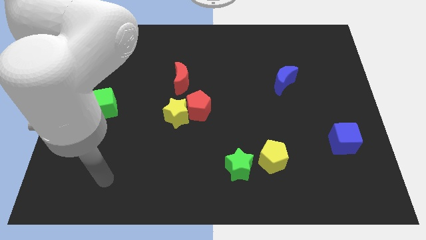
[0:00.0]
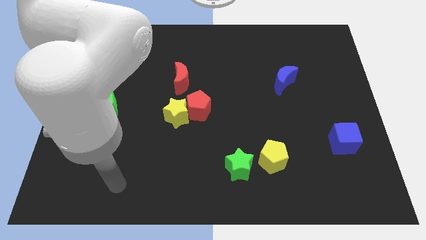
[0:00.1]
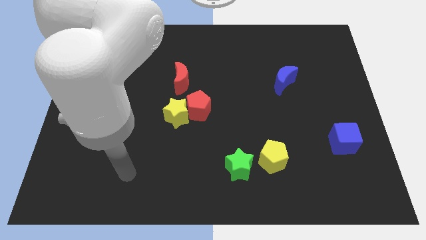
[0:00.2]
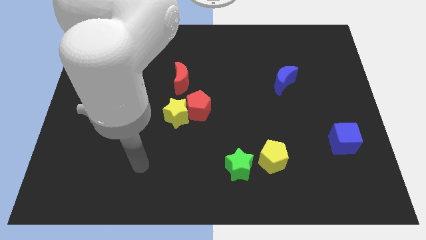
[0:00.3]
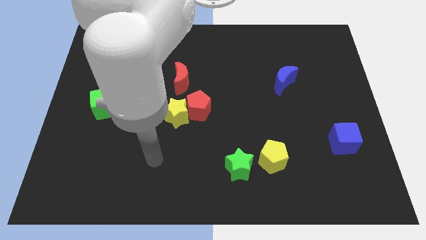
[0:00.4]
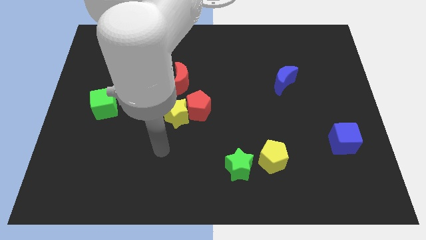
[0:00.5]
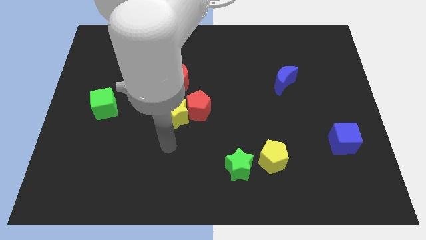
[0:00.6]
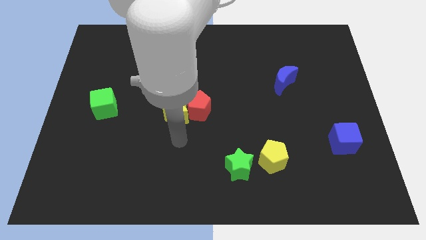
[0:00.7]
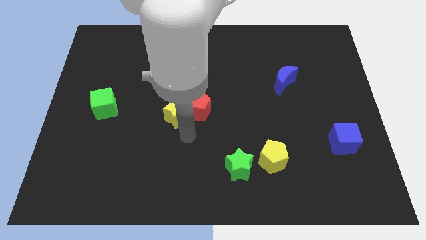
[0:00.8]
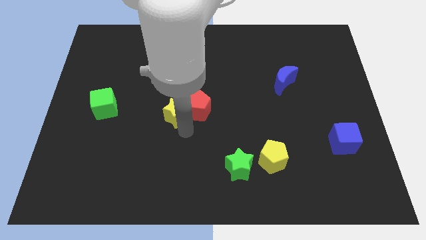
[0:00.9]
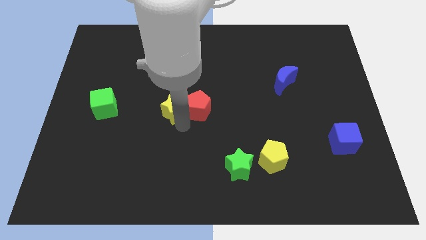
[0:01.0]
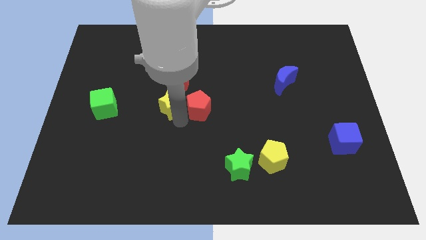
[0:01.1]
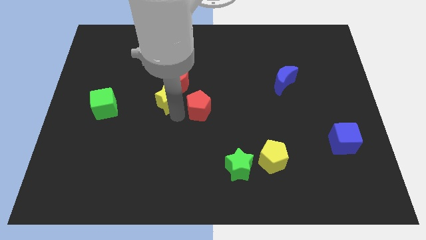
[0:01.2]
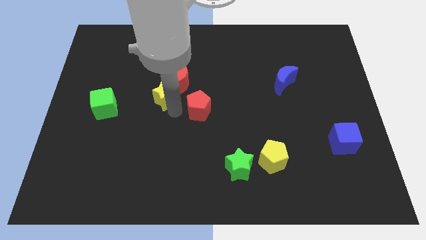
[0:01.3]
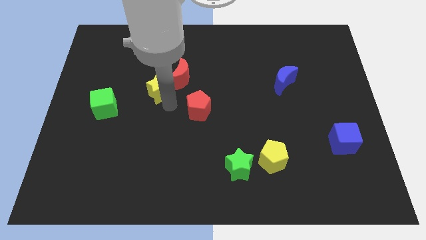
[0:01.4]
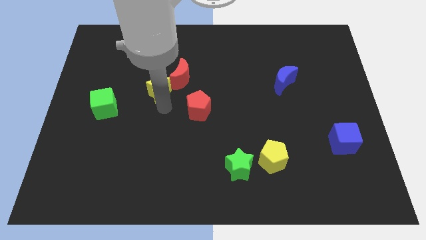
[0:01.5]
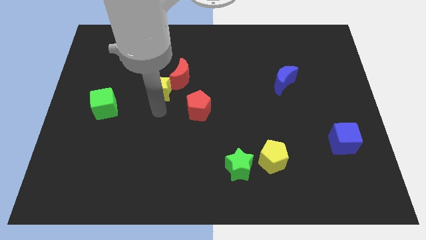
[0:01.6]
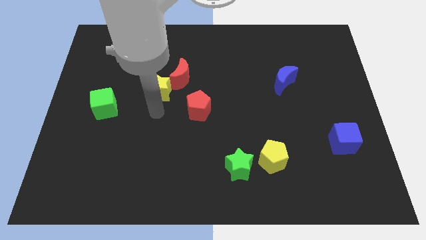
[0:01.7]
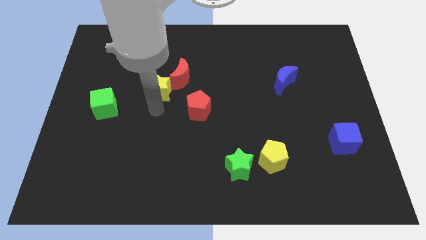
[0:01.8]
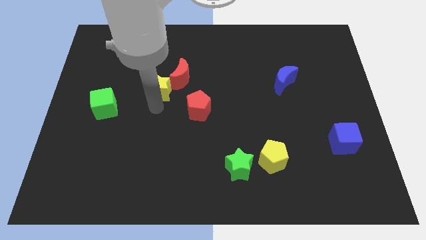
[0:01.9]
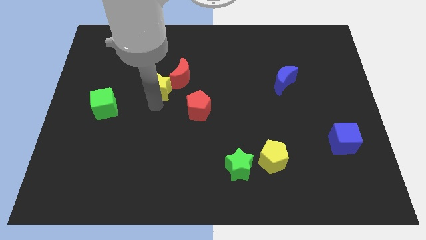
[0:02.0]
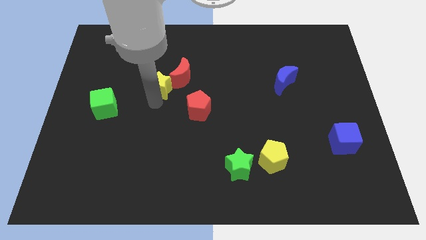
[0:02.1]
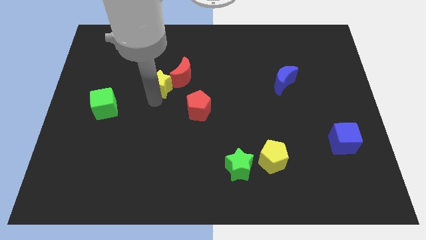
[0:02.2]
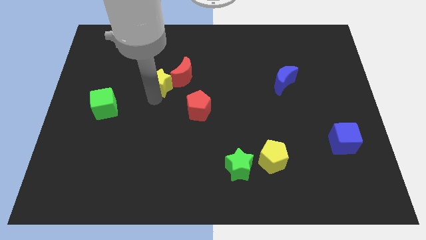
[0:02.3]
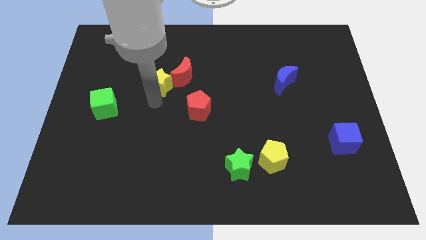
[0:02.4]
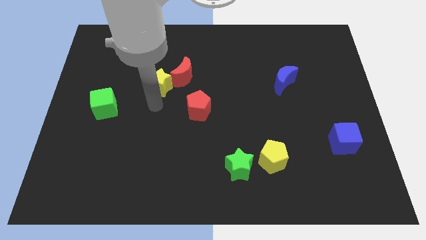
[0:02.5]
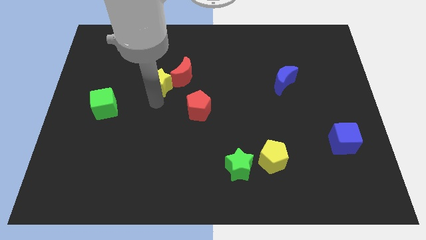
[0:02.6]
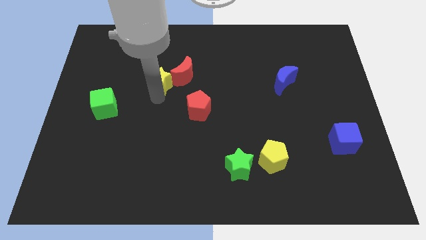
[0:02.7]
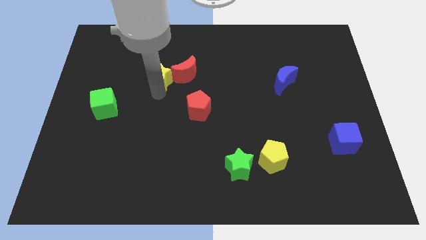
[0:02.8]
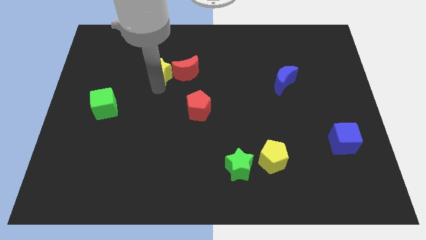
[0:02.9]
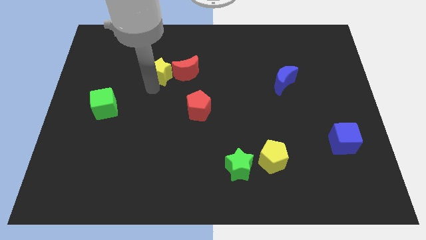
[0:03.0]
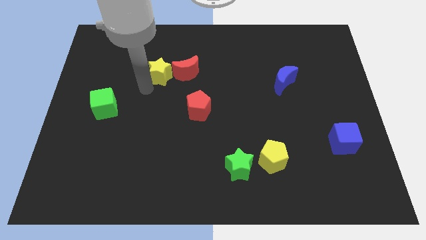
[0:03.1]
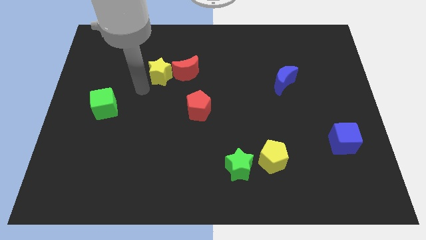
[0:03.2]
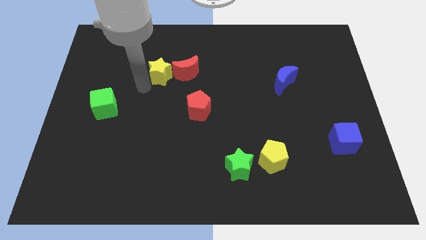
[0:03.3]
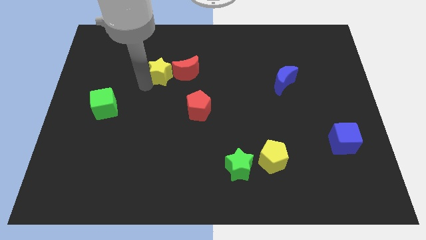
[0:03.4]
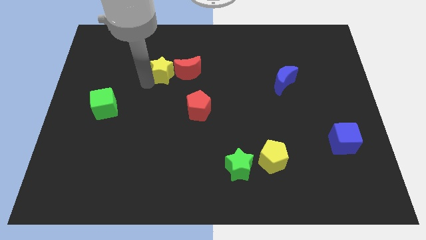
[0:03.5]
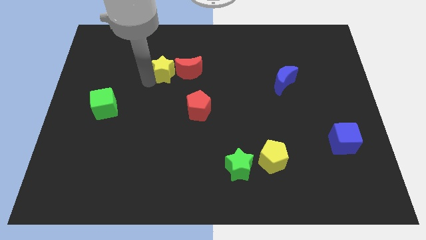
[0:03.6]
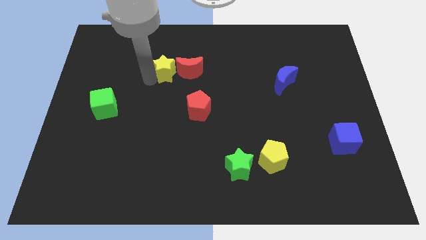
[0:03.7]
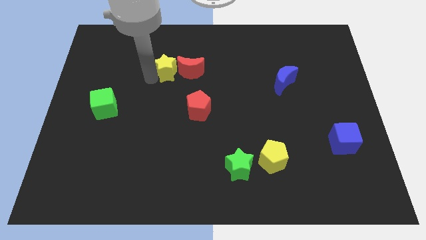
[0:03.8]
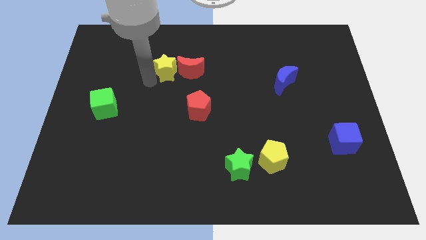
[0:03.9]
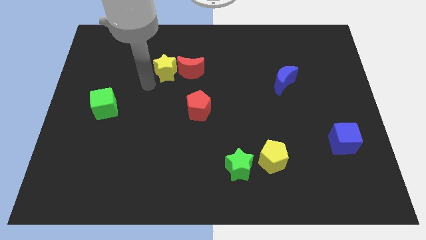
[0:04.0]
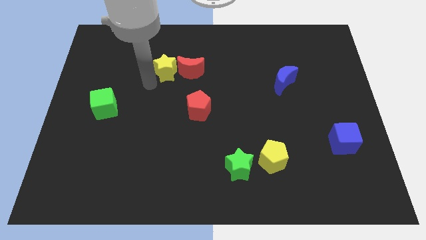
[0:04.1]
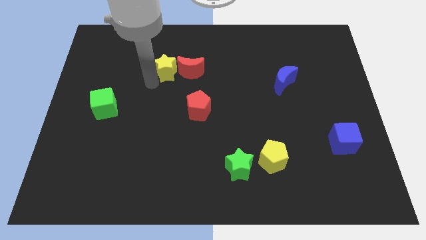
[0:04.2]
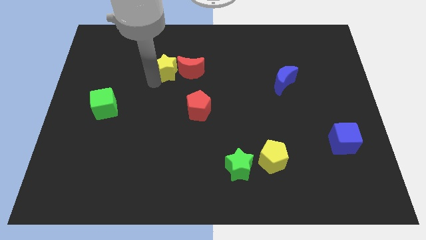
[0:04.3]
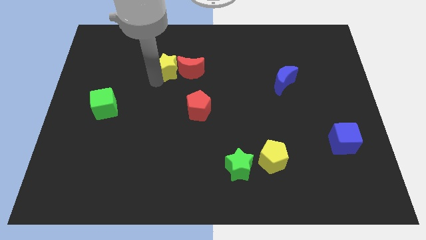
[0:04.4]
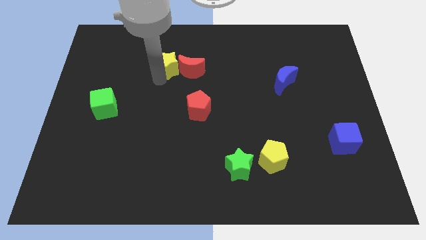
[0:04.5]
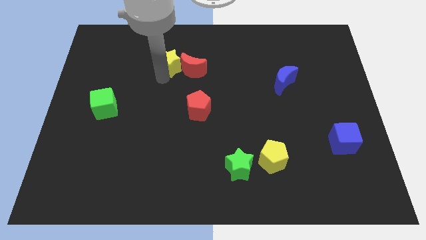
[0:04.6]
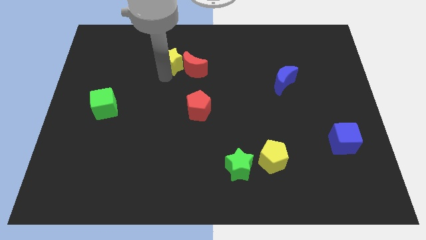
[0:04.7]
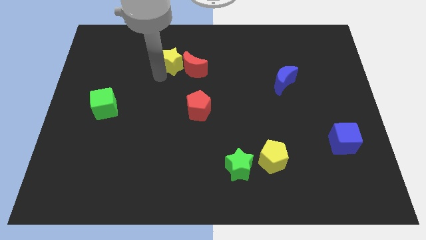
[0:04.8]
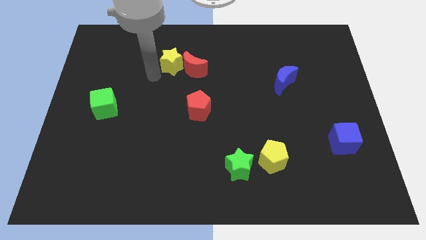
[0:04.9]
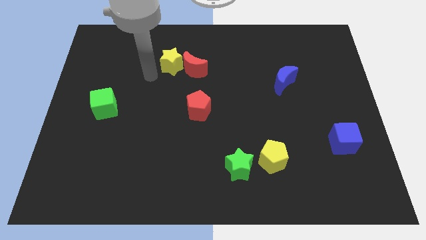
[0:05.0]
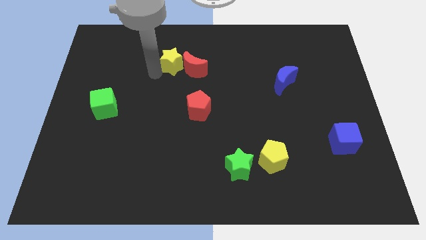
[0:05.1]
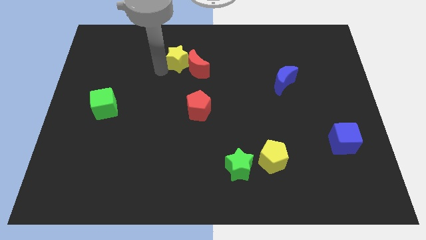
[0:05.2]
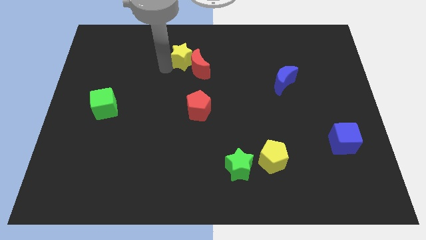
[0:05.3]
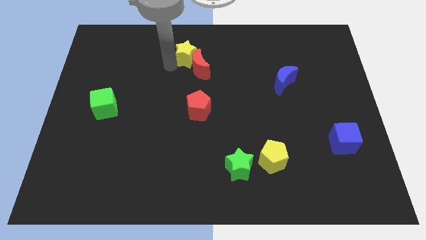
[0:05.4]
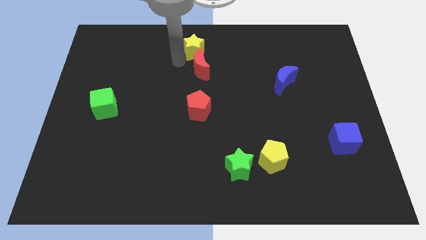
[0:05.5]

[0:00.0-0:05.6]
move the yellow star to the top side

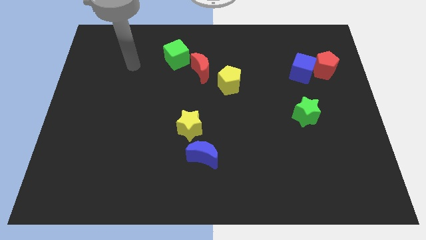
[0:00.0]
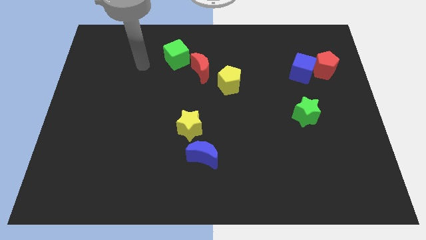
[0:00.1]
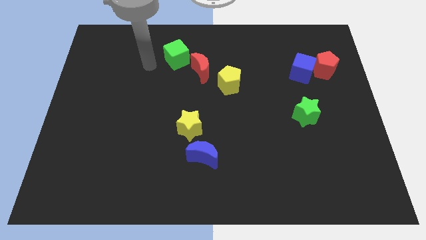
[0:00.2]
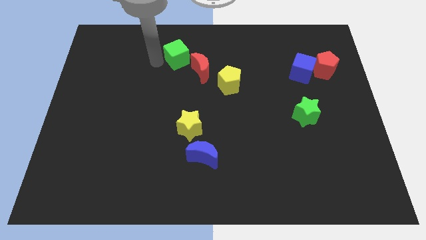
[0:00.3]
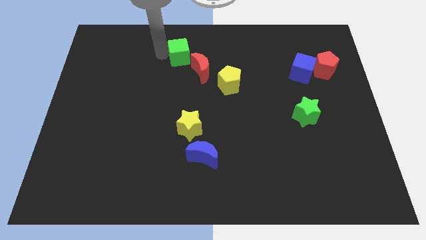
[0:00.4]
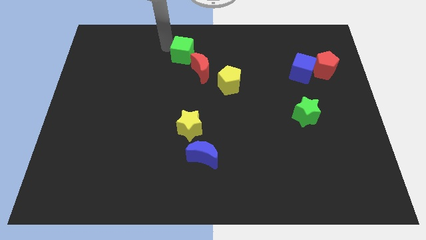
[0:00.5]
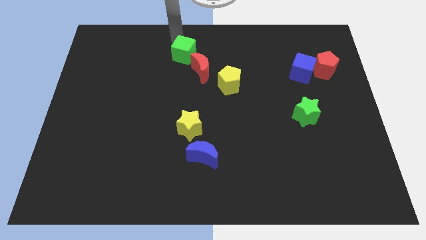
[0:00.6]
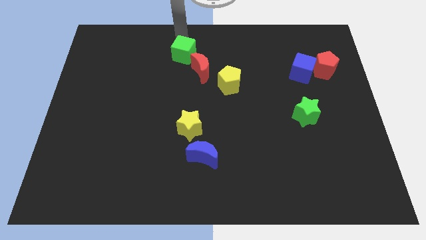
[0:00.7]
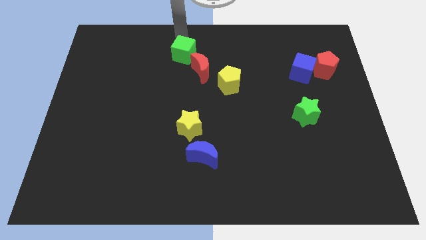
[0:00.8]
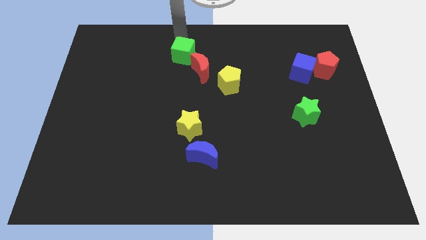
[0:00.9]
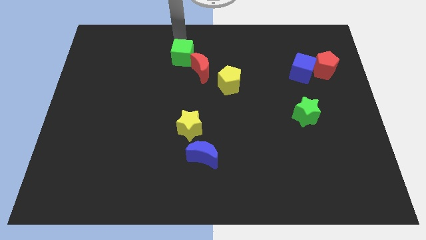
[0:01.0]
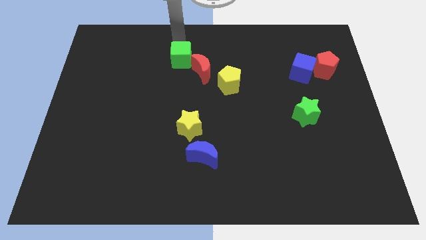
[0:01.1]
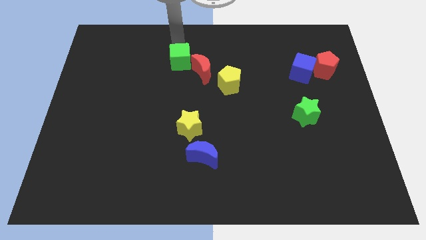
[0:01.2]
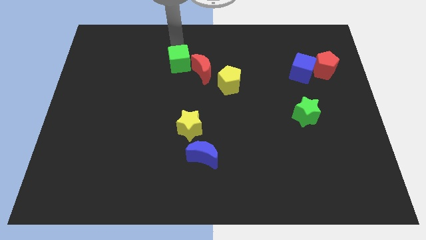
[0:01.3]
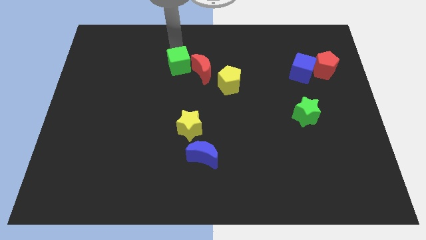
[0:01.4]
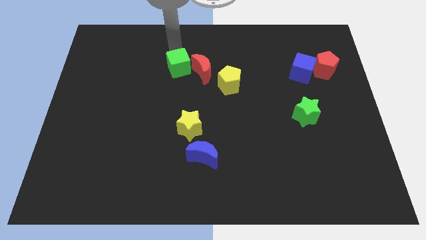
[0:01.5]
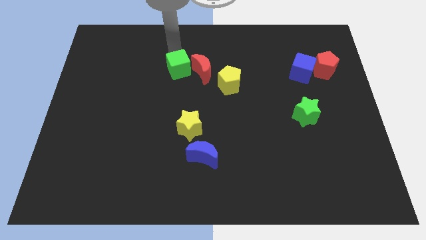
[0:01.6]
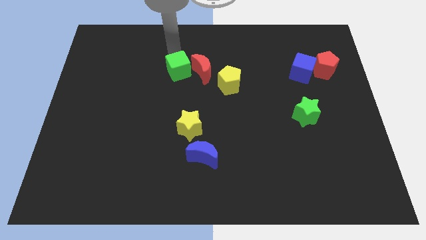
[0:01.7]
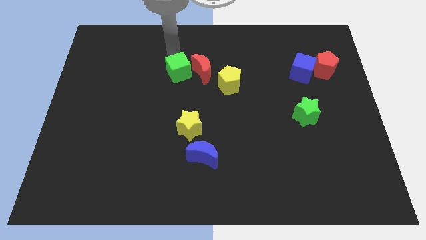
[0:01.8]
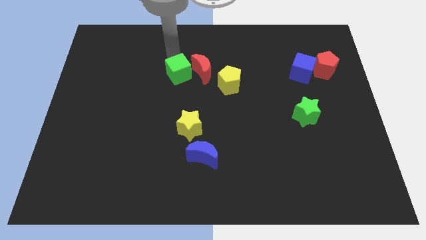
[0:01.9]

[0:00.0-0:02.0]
slide the green cube to the middle of the board
